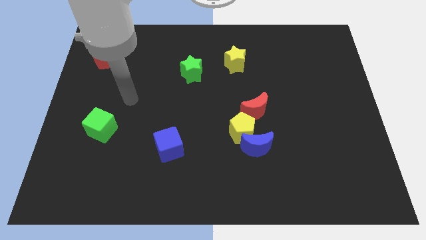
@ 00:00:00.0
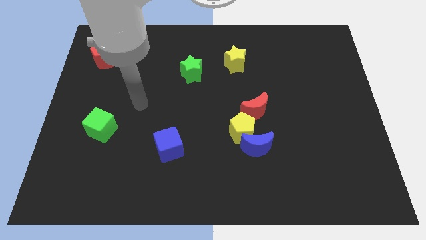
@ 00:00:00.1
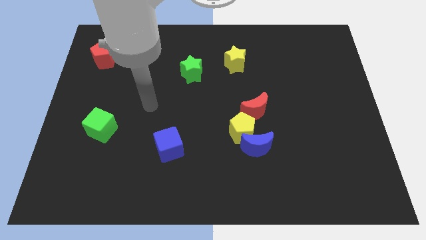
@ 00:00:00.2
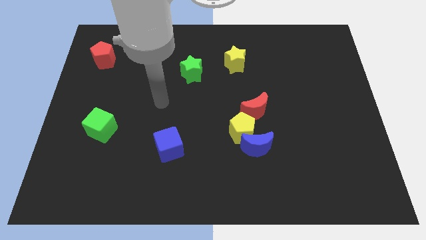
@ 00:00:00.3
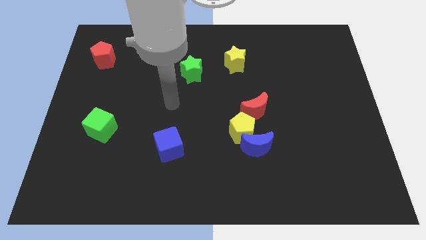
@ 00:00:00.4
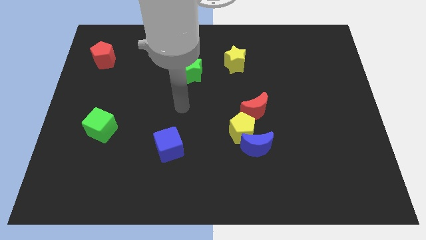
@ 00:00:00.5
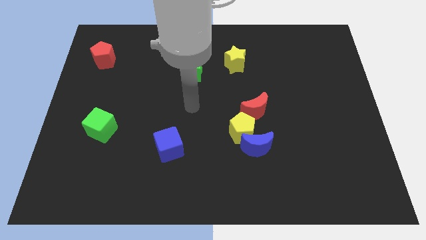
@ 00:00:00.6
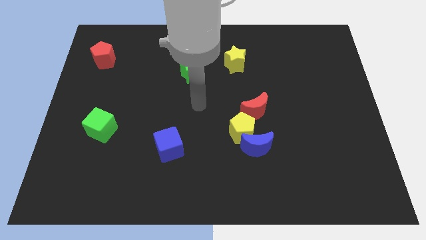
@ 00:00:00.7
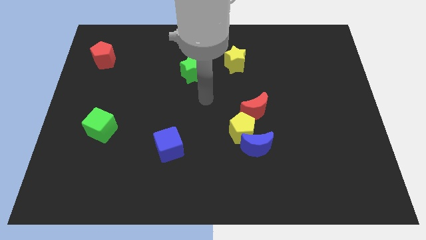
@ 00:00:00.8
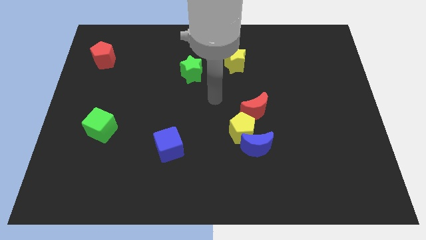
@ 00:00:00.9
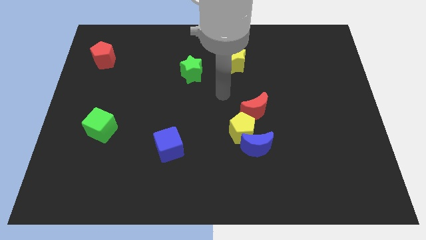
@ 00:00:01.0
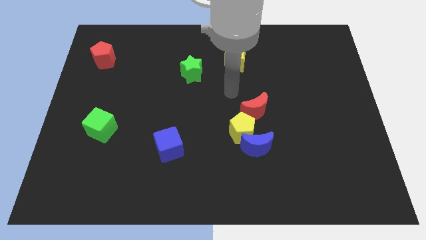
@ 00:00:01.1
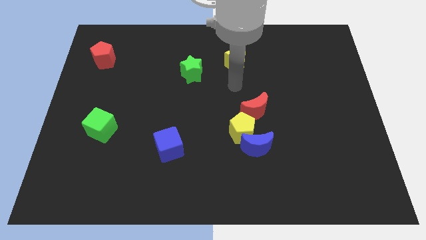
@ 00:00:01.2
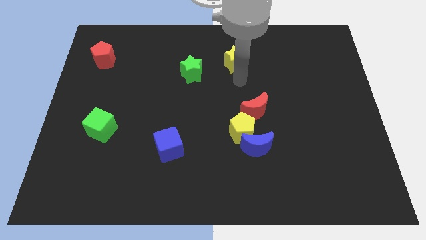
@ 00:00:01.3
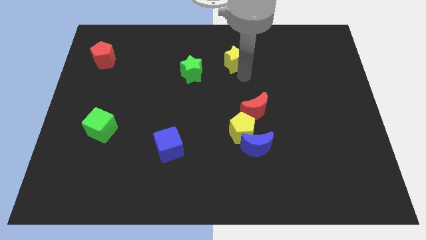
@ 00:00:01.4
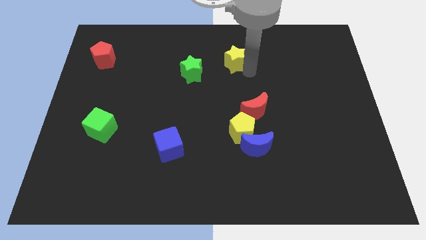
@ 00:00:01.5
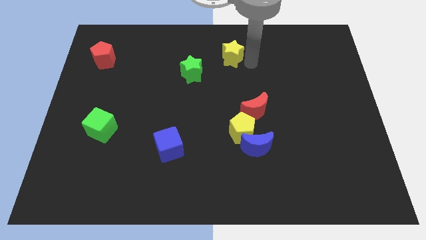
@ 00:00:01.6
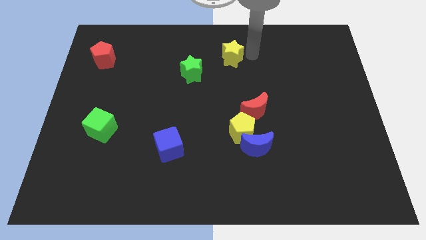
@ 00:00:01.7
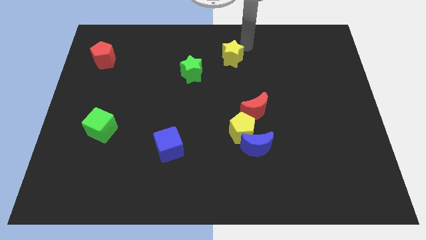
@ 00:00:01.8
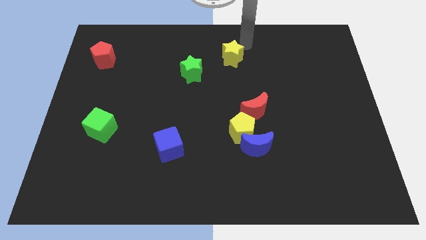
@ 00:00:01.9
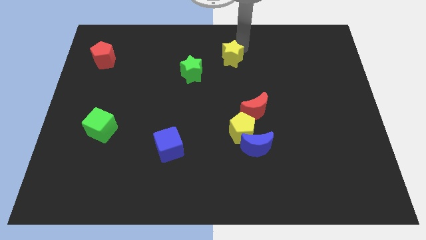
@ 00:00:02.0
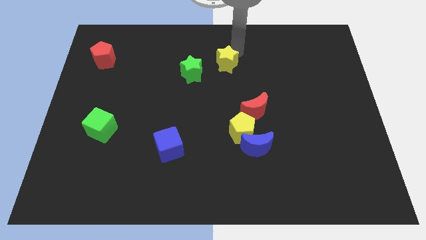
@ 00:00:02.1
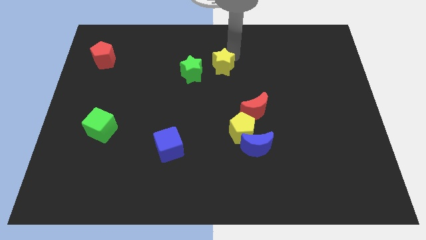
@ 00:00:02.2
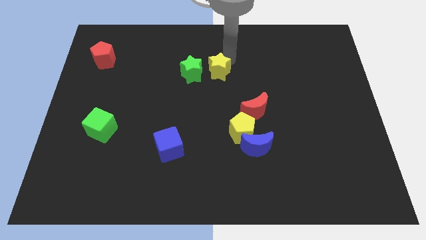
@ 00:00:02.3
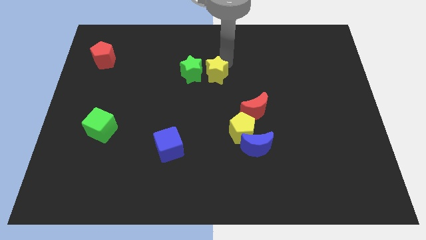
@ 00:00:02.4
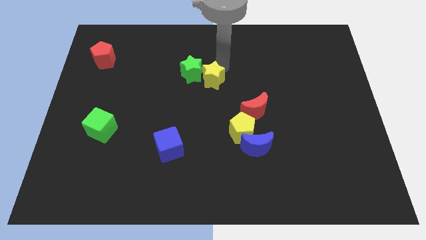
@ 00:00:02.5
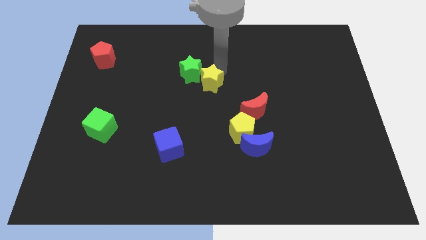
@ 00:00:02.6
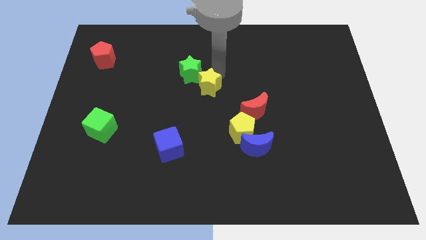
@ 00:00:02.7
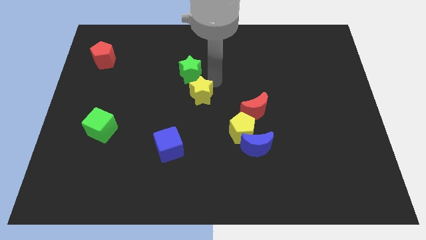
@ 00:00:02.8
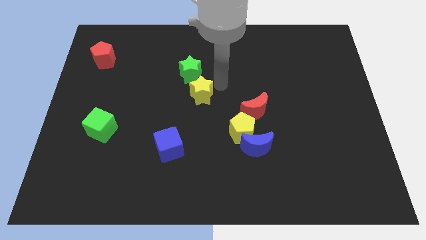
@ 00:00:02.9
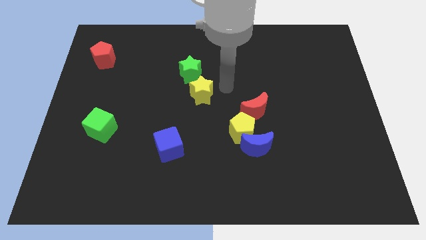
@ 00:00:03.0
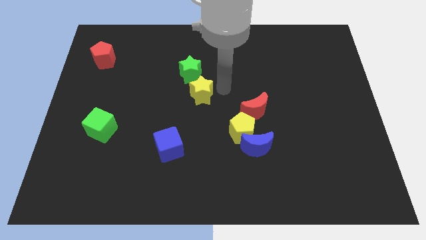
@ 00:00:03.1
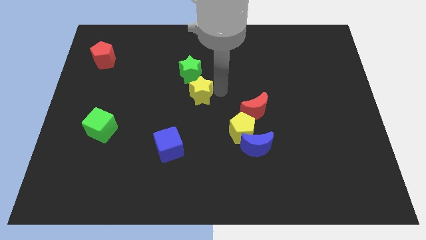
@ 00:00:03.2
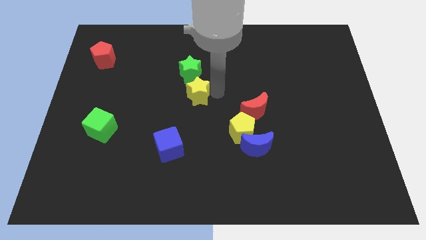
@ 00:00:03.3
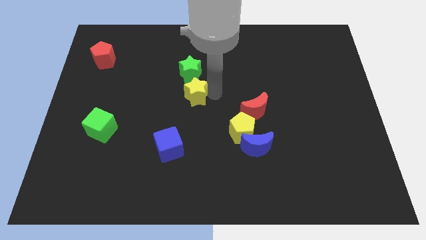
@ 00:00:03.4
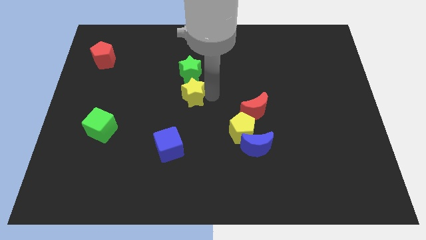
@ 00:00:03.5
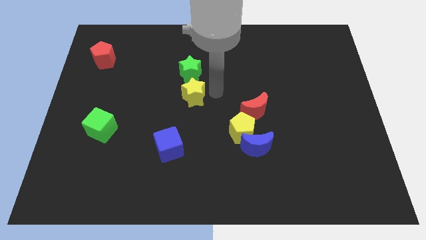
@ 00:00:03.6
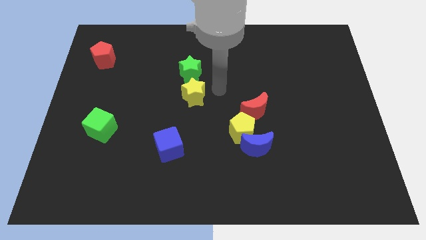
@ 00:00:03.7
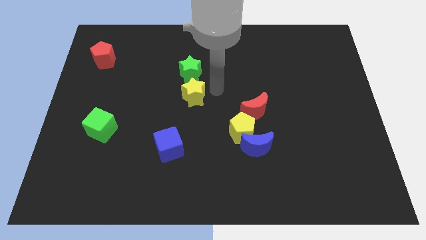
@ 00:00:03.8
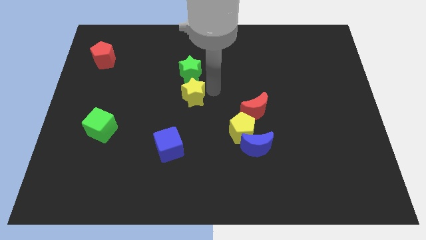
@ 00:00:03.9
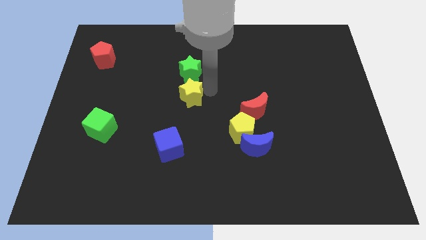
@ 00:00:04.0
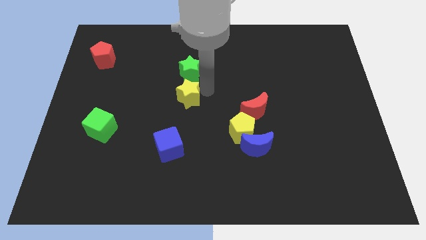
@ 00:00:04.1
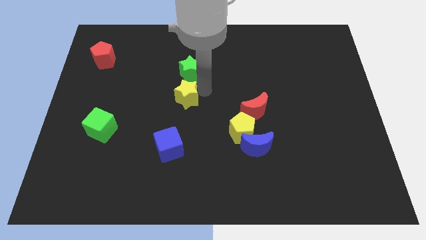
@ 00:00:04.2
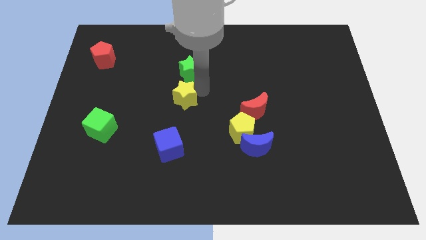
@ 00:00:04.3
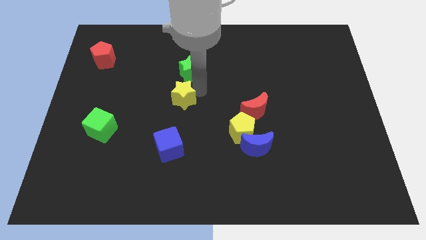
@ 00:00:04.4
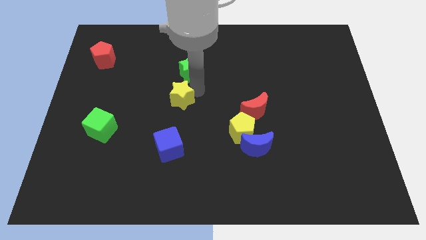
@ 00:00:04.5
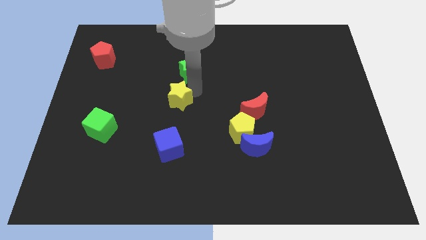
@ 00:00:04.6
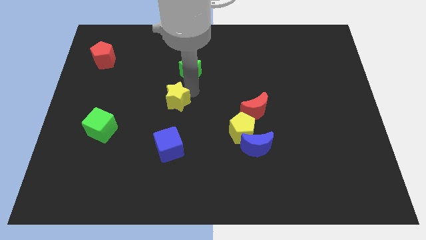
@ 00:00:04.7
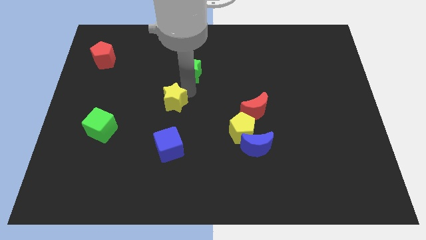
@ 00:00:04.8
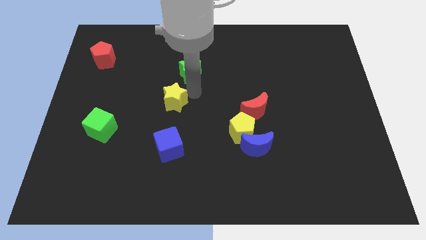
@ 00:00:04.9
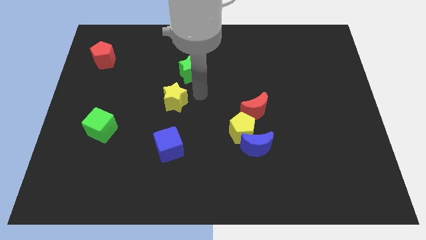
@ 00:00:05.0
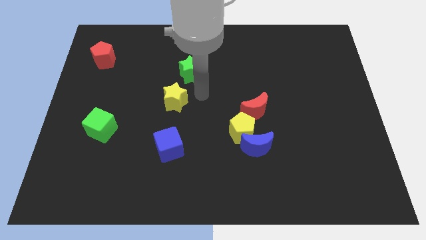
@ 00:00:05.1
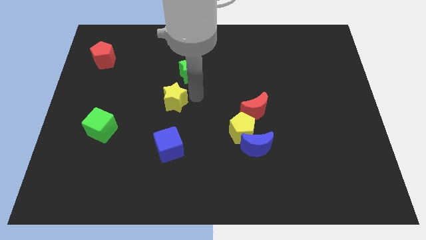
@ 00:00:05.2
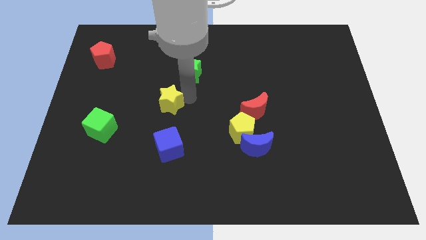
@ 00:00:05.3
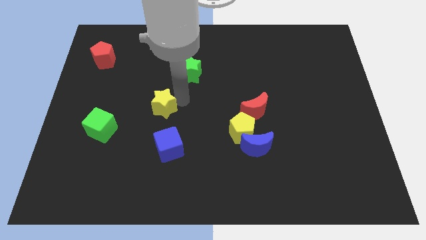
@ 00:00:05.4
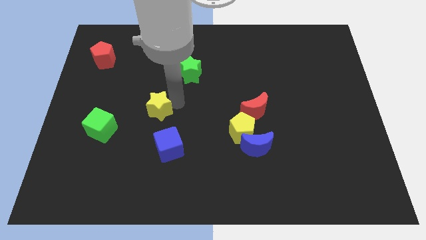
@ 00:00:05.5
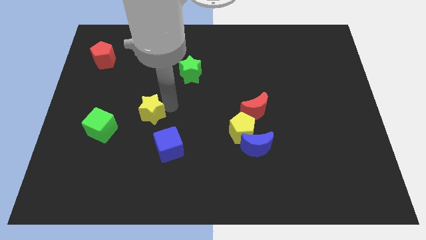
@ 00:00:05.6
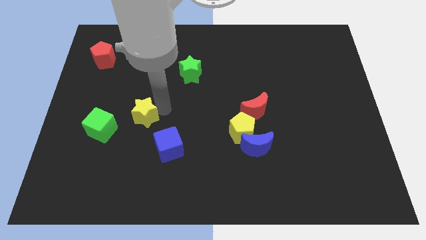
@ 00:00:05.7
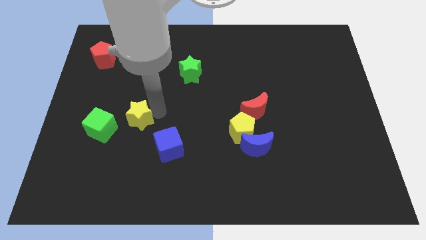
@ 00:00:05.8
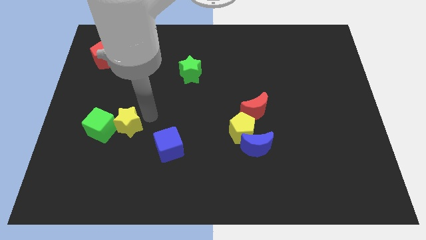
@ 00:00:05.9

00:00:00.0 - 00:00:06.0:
move the yellow star to the green cube

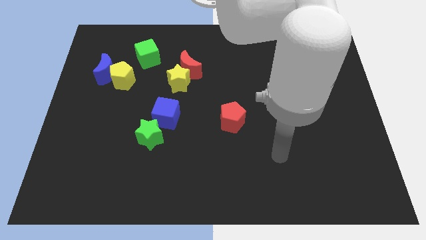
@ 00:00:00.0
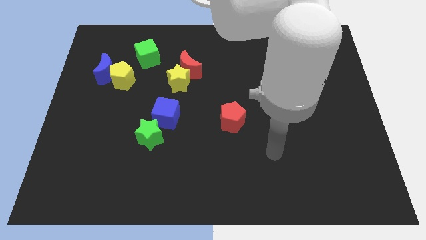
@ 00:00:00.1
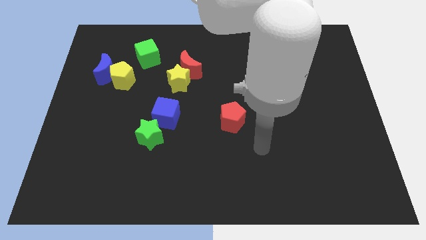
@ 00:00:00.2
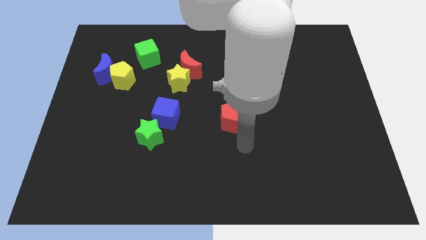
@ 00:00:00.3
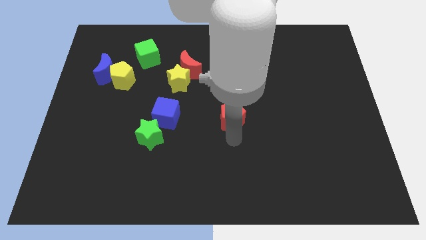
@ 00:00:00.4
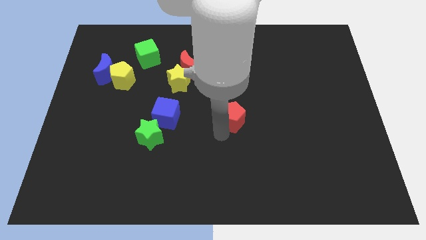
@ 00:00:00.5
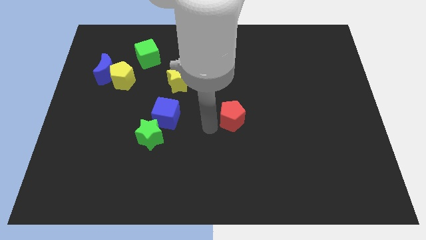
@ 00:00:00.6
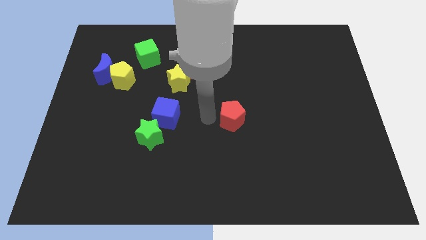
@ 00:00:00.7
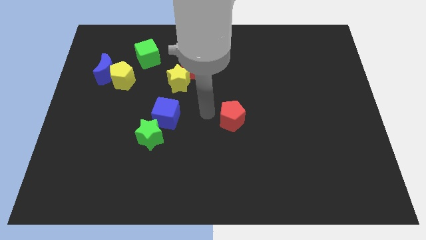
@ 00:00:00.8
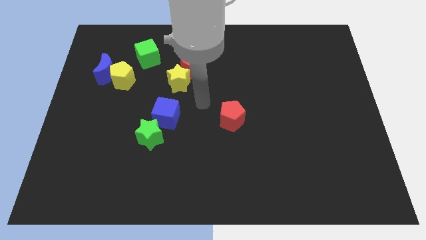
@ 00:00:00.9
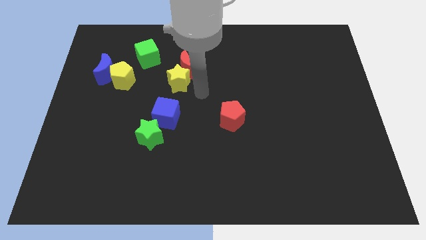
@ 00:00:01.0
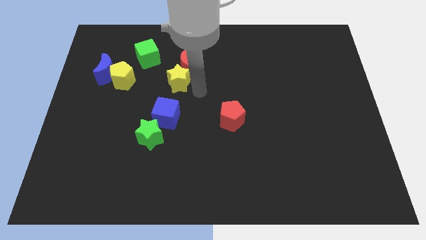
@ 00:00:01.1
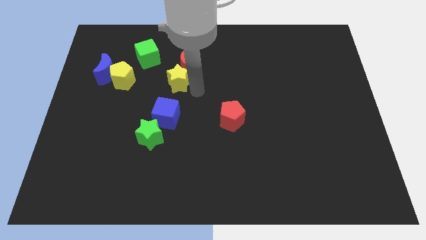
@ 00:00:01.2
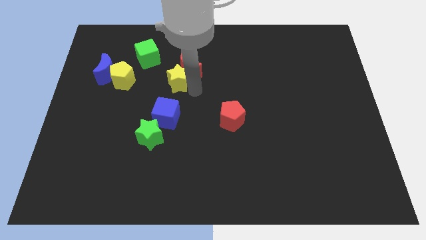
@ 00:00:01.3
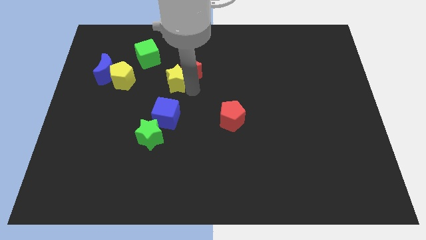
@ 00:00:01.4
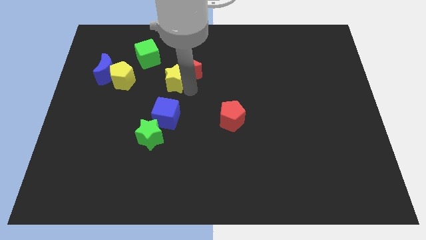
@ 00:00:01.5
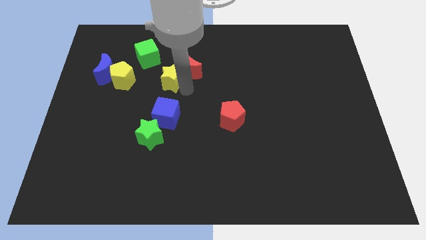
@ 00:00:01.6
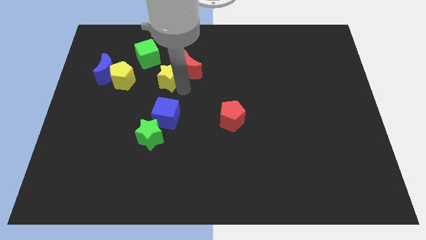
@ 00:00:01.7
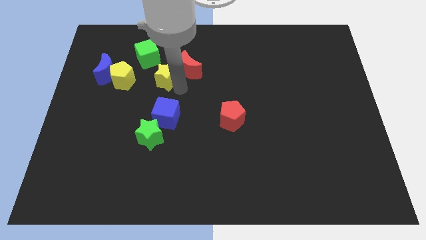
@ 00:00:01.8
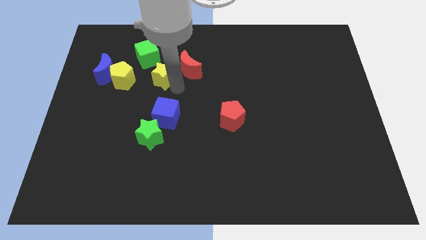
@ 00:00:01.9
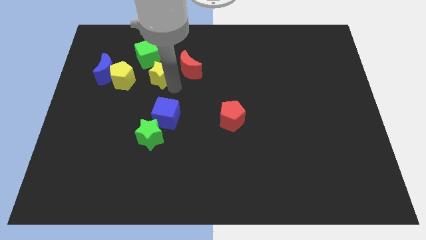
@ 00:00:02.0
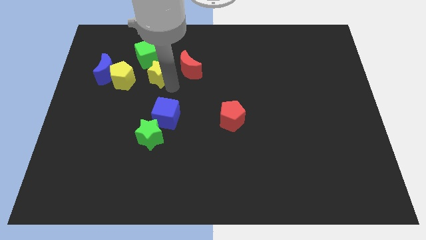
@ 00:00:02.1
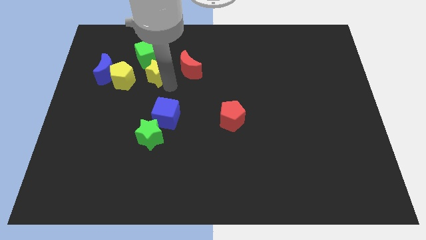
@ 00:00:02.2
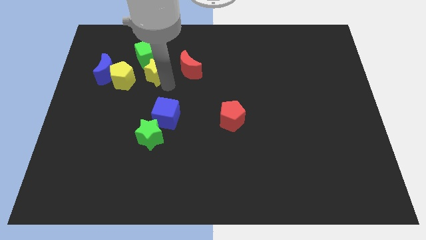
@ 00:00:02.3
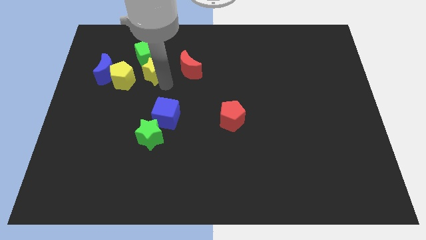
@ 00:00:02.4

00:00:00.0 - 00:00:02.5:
move the yellow star towards the green cube
